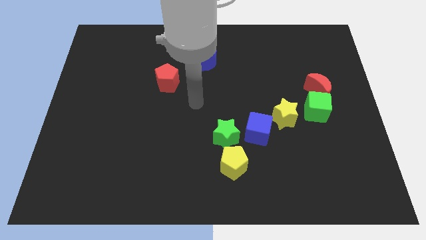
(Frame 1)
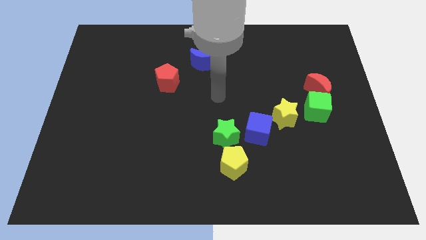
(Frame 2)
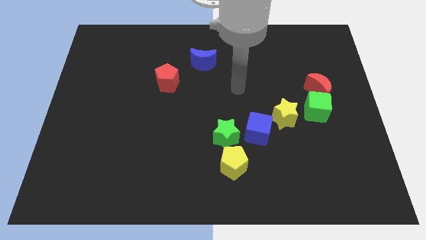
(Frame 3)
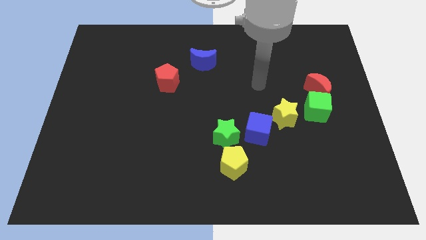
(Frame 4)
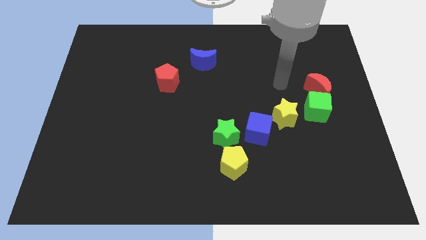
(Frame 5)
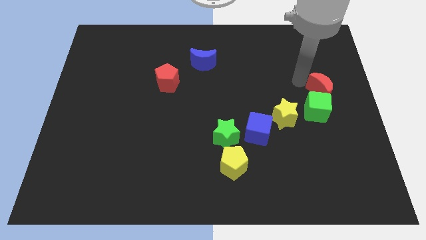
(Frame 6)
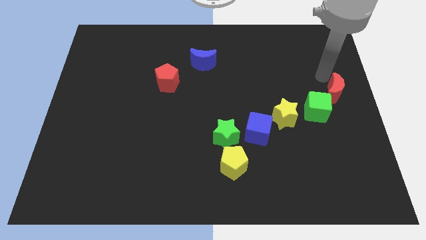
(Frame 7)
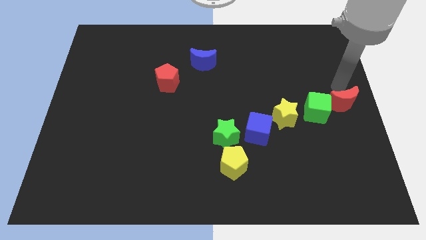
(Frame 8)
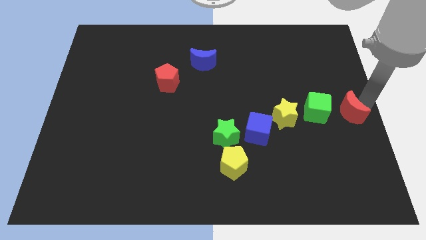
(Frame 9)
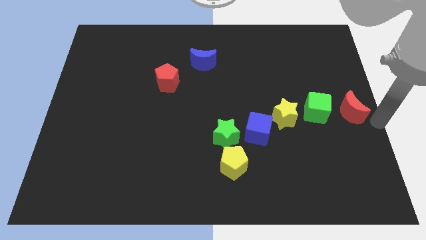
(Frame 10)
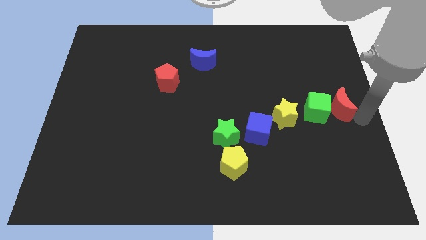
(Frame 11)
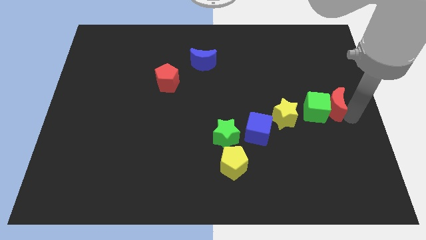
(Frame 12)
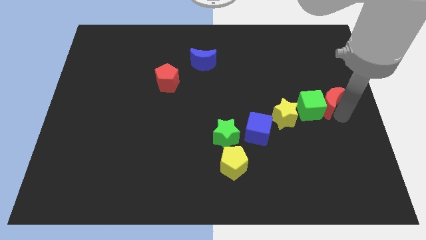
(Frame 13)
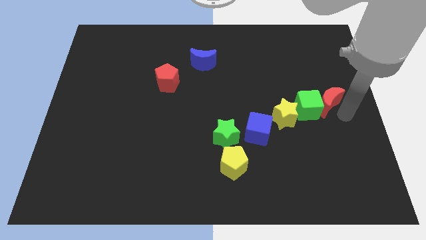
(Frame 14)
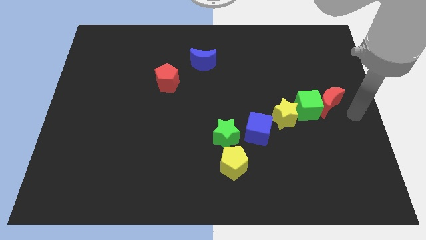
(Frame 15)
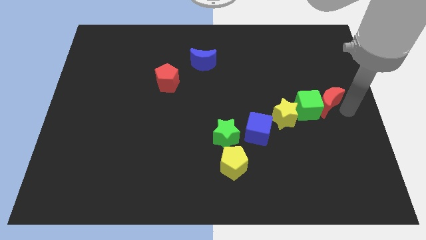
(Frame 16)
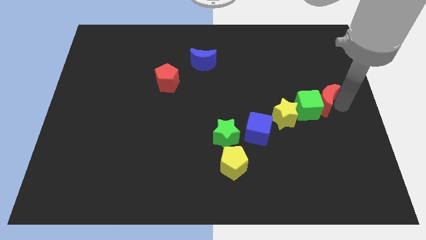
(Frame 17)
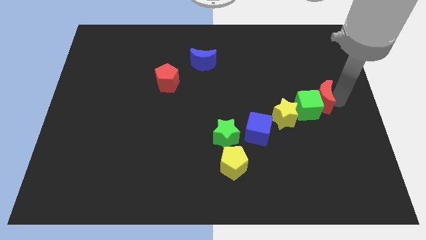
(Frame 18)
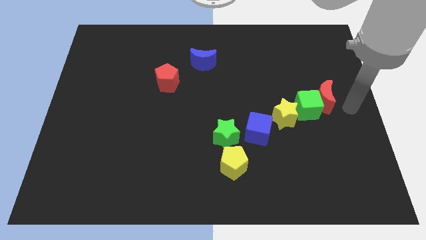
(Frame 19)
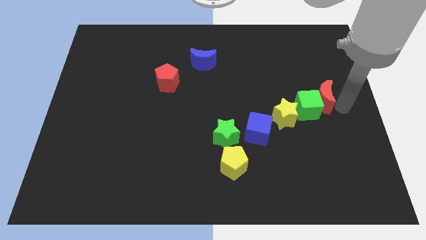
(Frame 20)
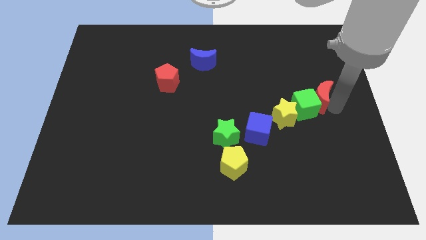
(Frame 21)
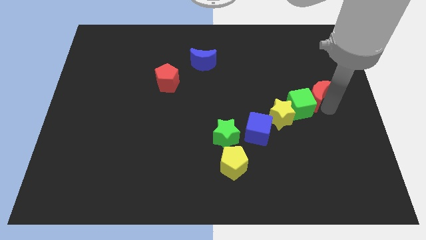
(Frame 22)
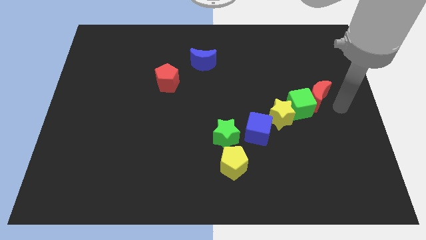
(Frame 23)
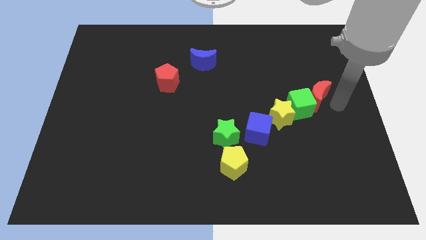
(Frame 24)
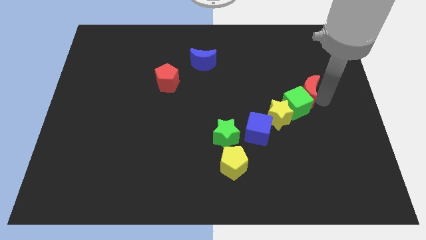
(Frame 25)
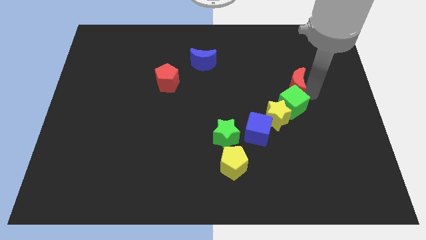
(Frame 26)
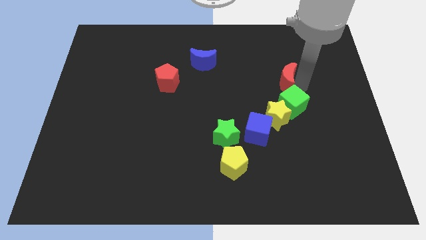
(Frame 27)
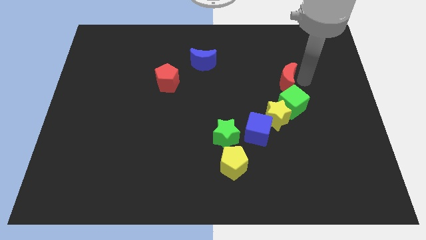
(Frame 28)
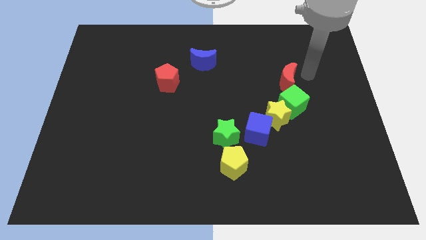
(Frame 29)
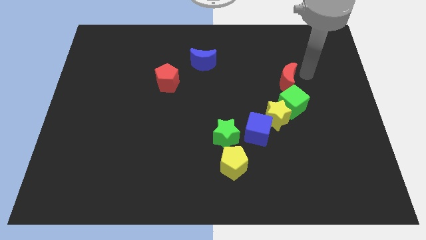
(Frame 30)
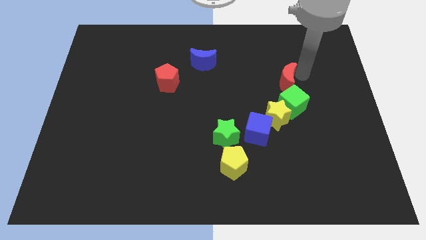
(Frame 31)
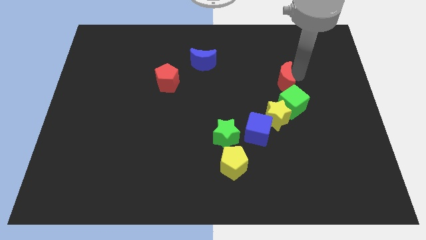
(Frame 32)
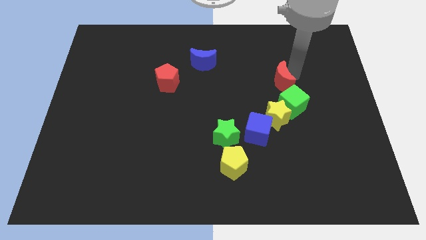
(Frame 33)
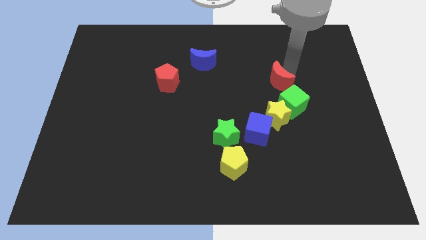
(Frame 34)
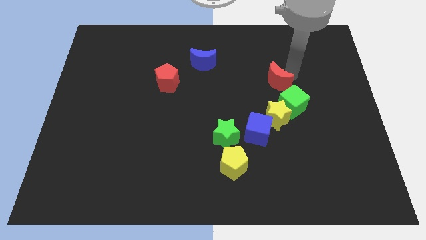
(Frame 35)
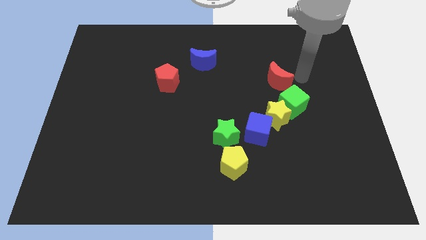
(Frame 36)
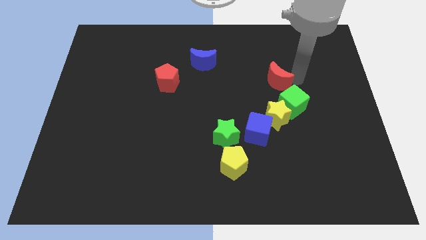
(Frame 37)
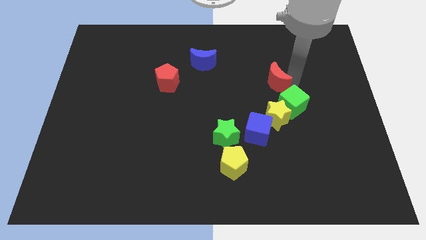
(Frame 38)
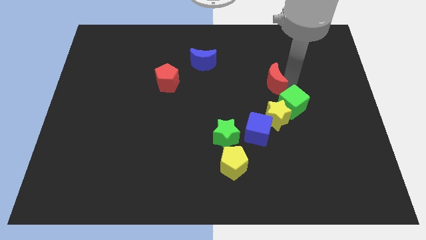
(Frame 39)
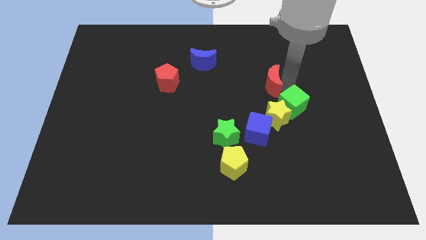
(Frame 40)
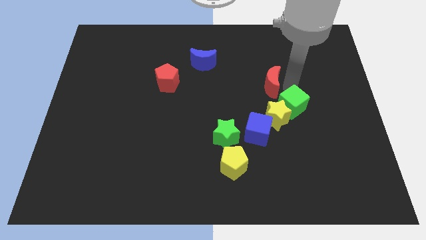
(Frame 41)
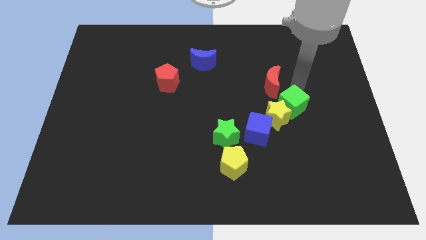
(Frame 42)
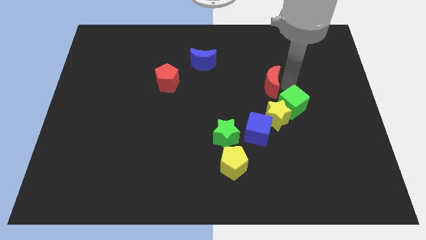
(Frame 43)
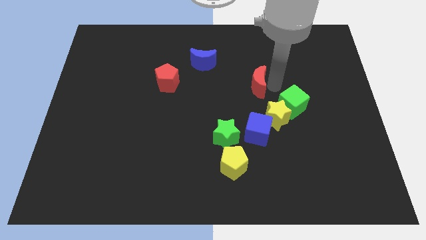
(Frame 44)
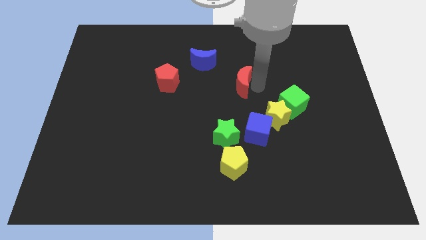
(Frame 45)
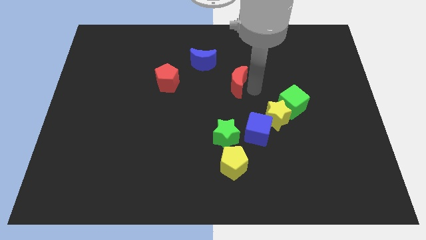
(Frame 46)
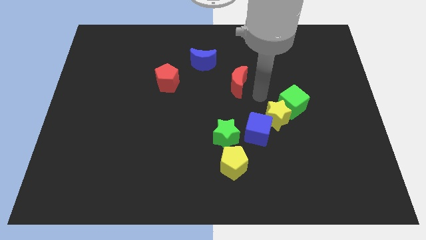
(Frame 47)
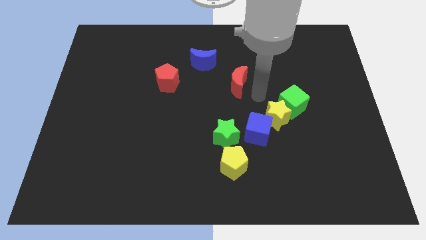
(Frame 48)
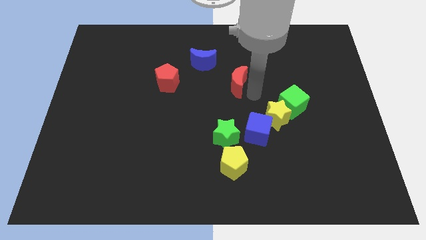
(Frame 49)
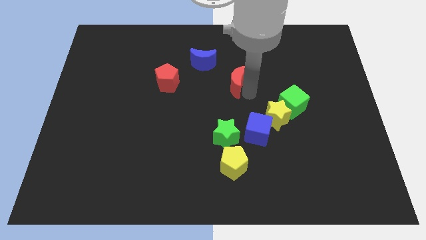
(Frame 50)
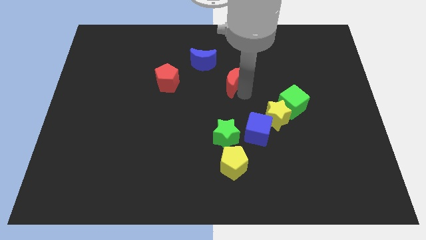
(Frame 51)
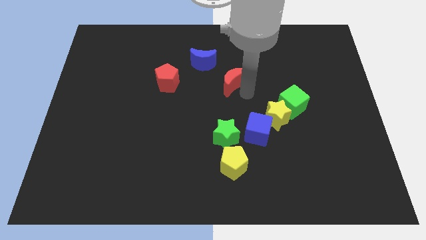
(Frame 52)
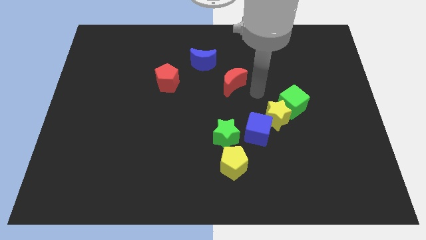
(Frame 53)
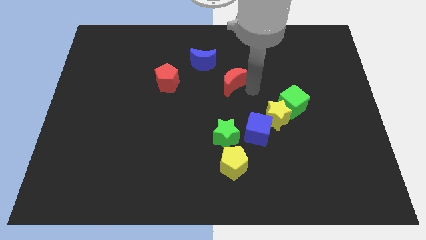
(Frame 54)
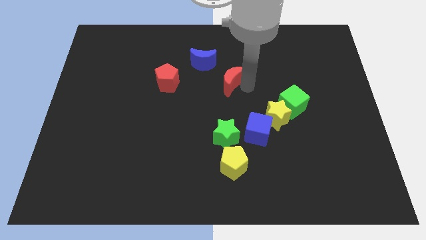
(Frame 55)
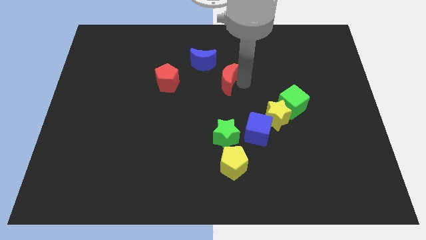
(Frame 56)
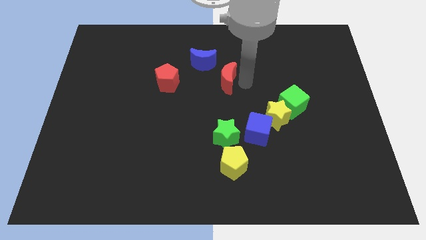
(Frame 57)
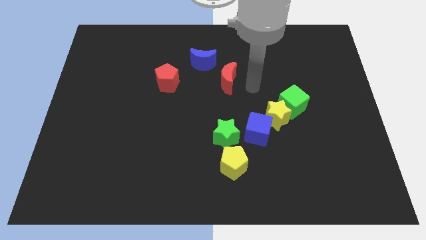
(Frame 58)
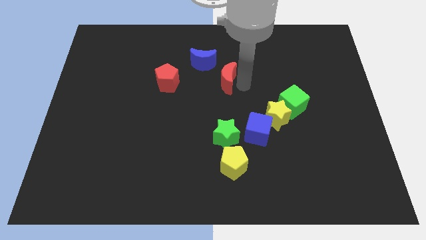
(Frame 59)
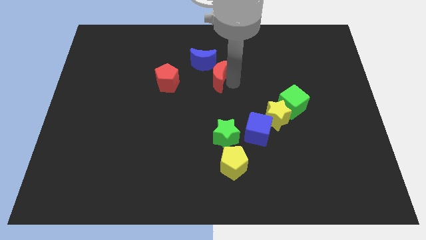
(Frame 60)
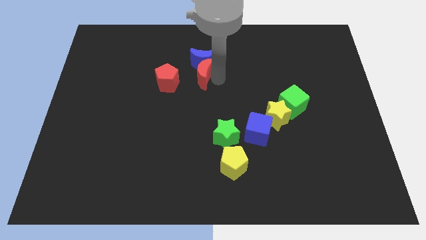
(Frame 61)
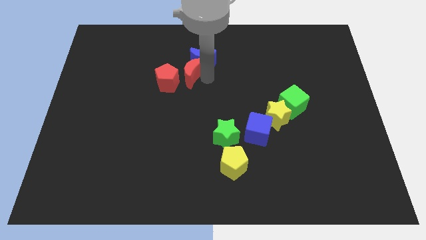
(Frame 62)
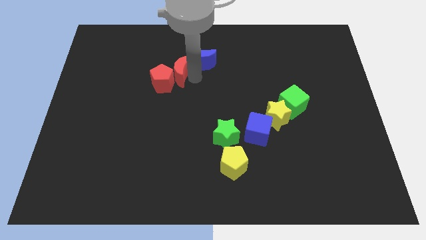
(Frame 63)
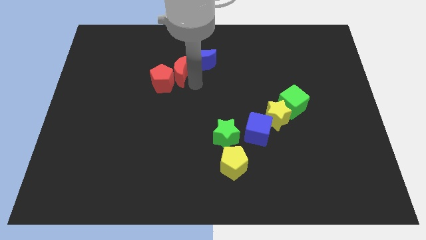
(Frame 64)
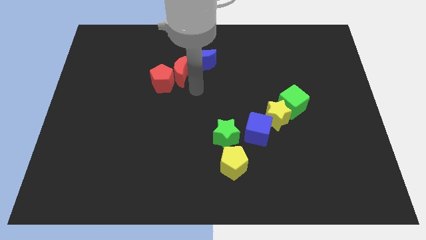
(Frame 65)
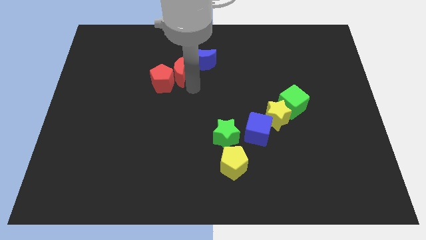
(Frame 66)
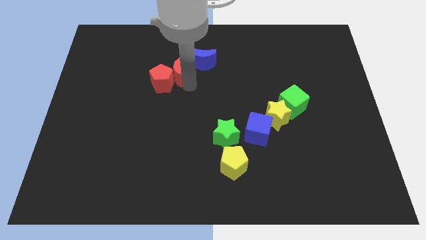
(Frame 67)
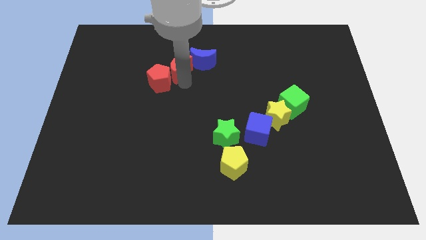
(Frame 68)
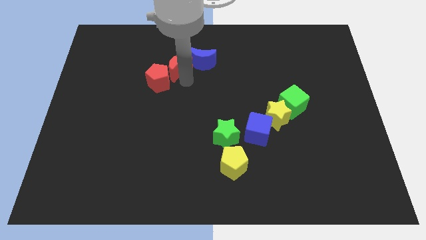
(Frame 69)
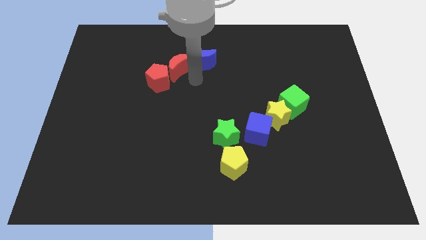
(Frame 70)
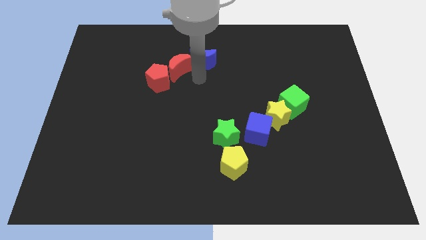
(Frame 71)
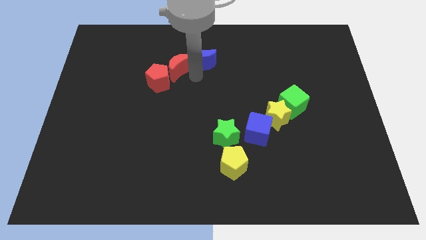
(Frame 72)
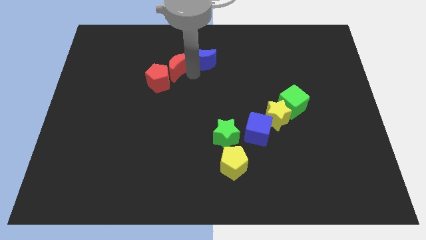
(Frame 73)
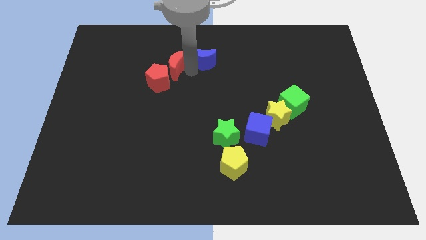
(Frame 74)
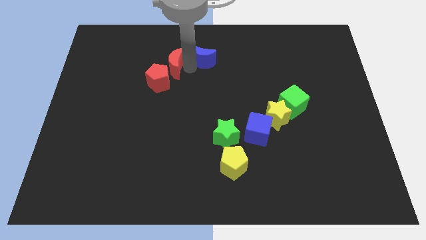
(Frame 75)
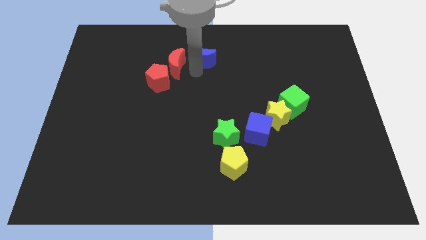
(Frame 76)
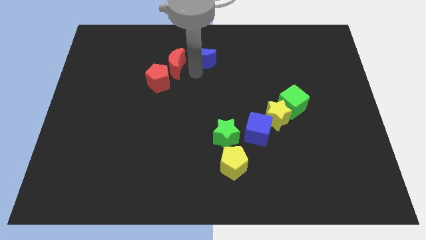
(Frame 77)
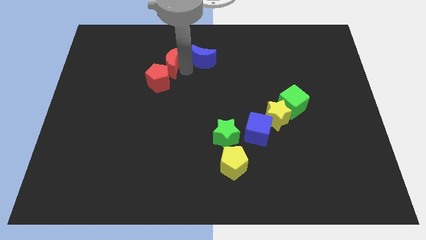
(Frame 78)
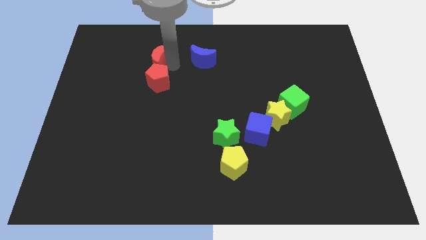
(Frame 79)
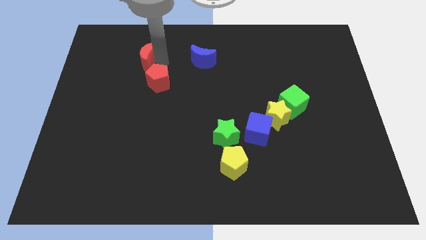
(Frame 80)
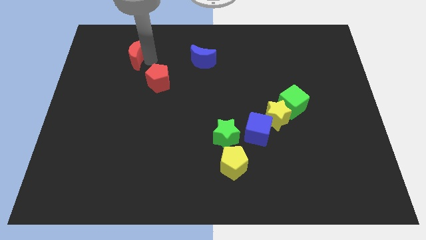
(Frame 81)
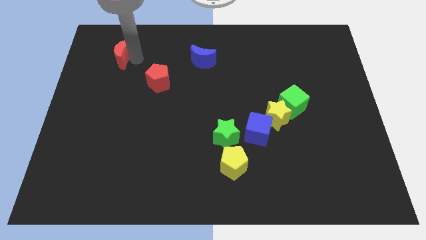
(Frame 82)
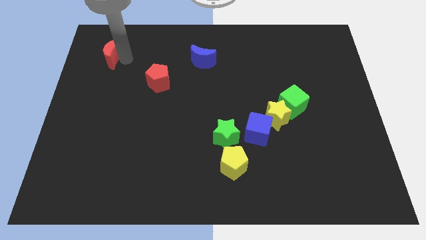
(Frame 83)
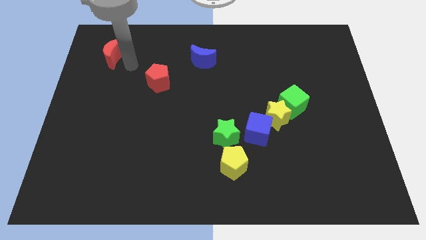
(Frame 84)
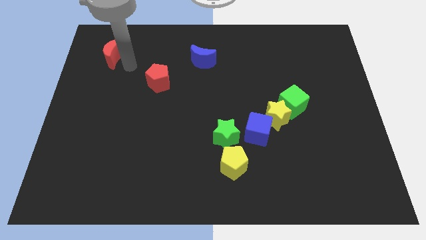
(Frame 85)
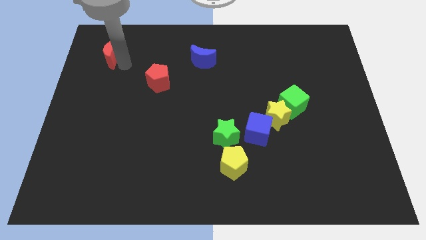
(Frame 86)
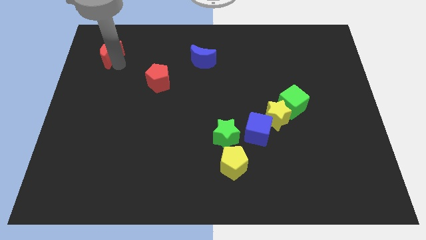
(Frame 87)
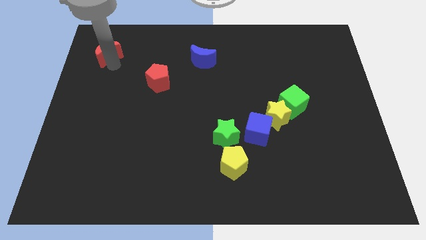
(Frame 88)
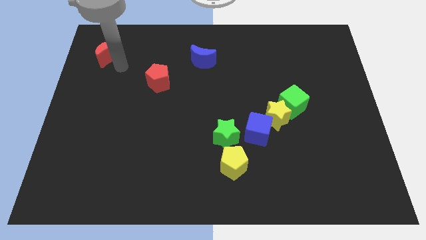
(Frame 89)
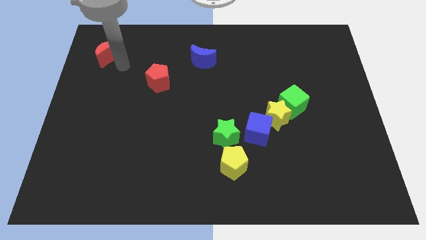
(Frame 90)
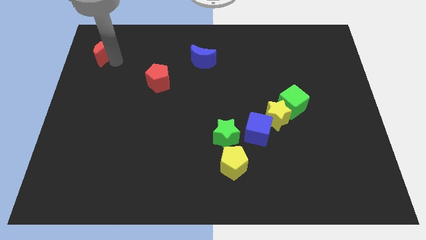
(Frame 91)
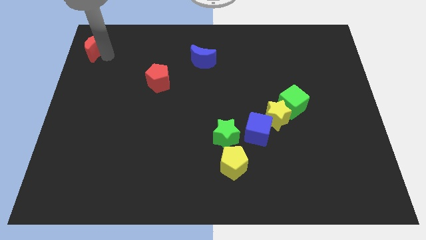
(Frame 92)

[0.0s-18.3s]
move the red moon to the top left of the board
